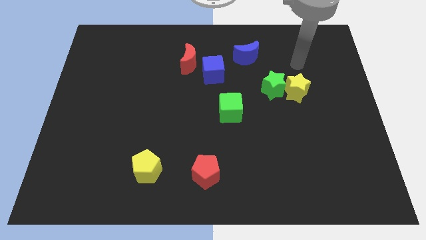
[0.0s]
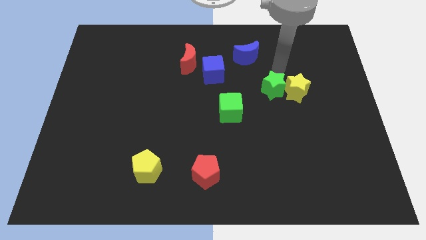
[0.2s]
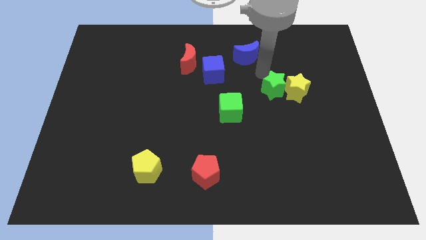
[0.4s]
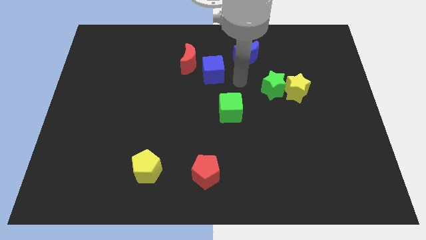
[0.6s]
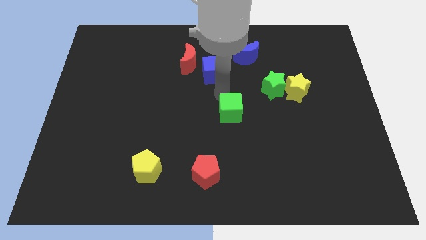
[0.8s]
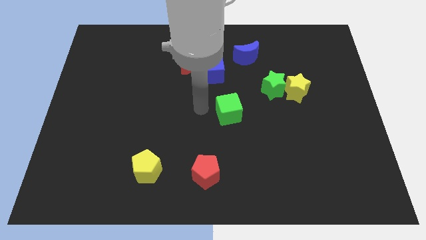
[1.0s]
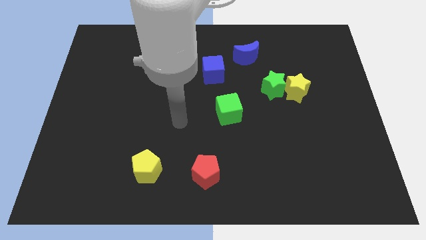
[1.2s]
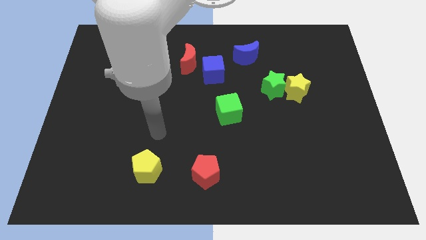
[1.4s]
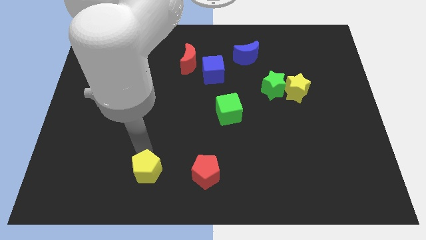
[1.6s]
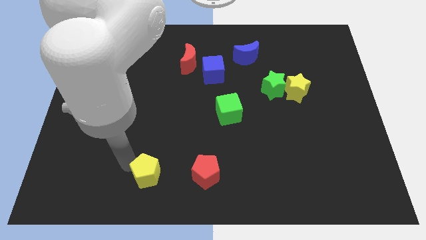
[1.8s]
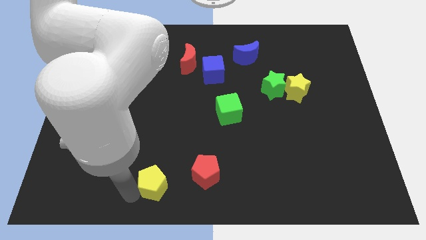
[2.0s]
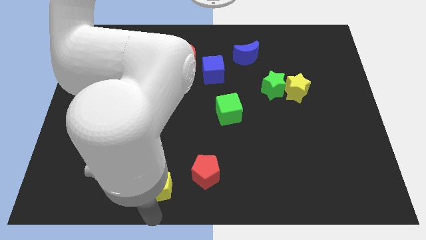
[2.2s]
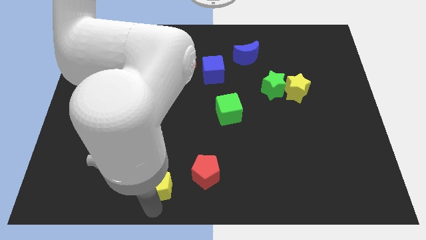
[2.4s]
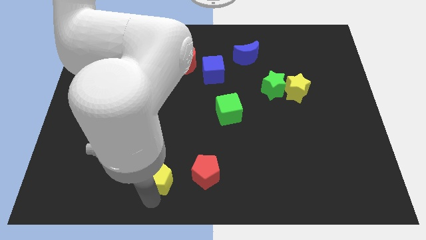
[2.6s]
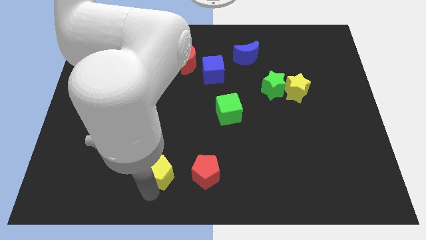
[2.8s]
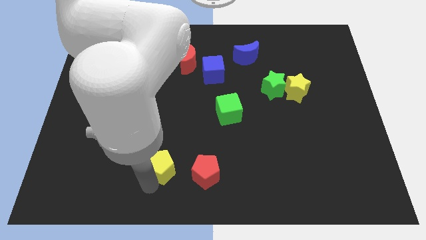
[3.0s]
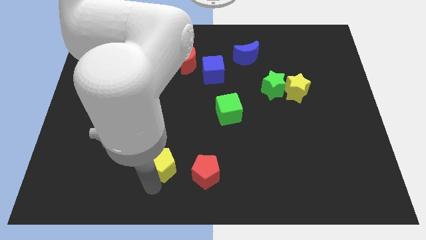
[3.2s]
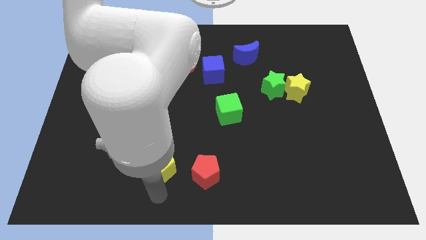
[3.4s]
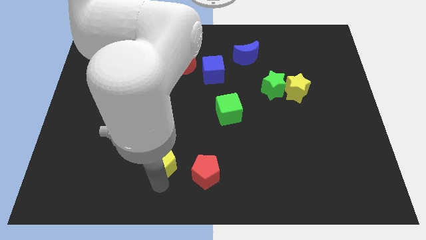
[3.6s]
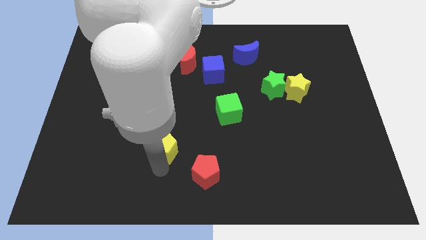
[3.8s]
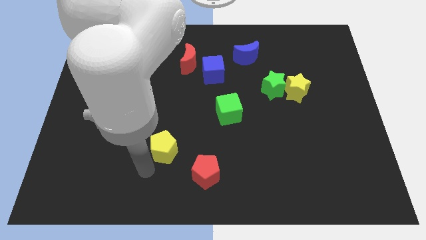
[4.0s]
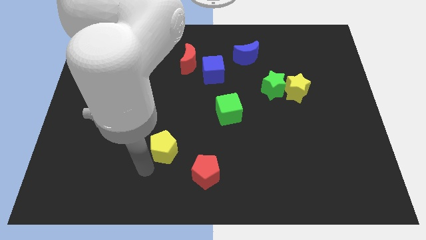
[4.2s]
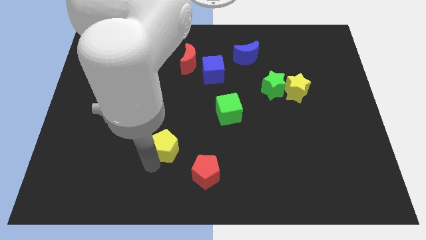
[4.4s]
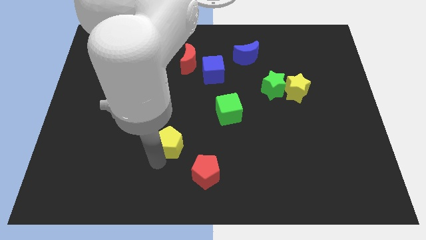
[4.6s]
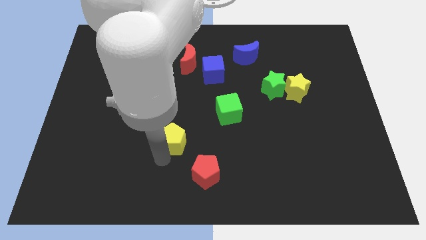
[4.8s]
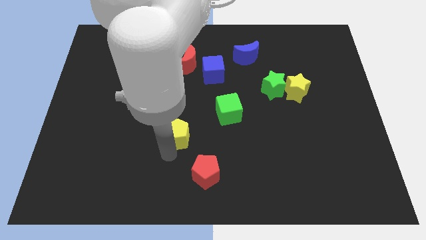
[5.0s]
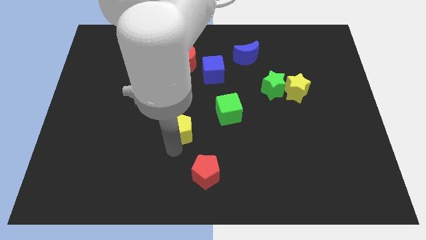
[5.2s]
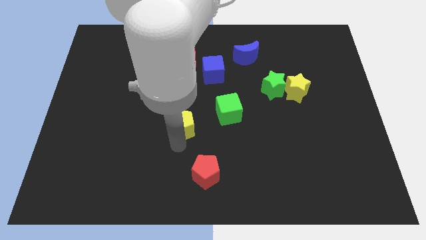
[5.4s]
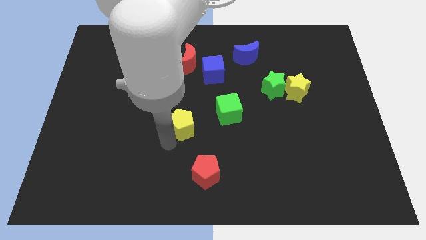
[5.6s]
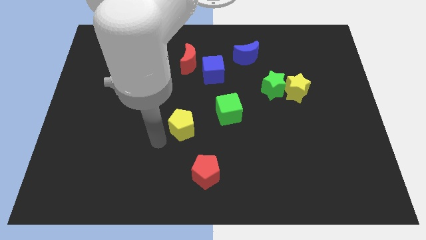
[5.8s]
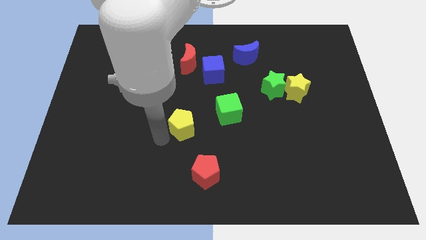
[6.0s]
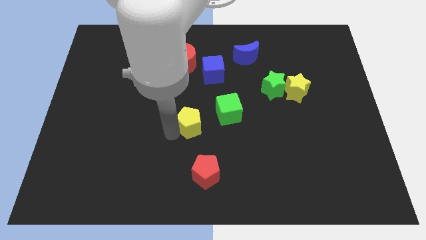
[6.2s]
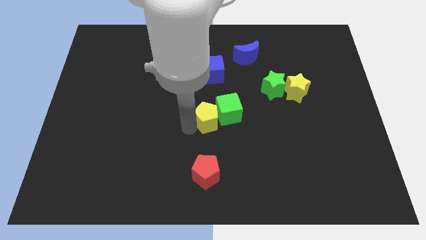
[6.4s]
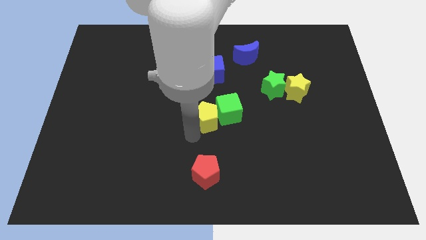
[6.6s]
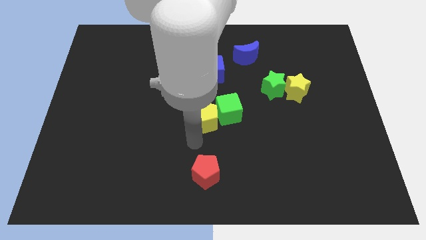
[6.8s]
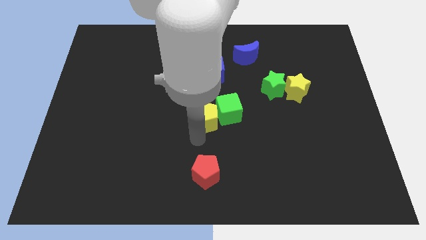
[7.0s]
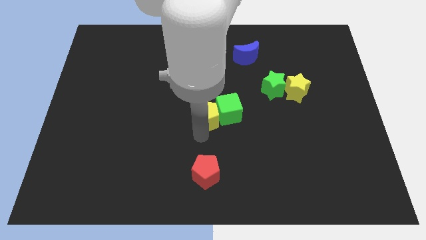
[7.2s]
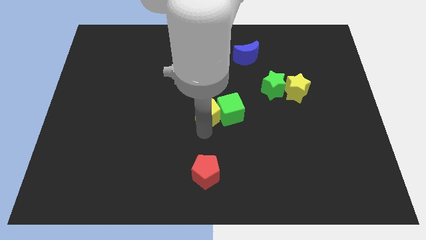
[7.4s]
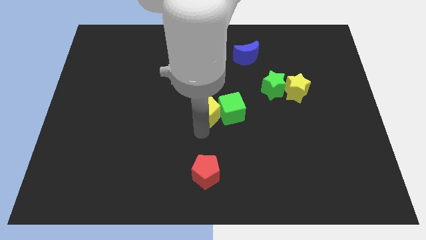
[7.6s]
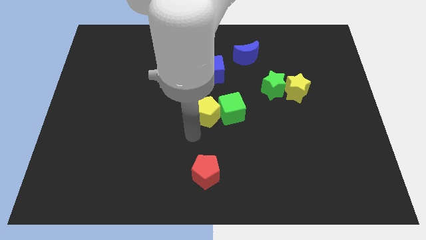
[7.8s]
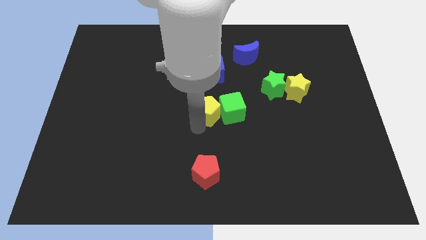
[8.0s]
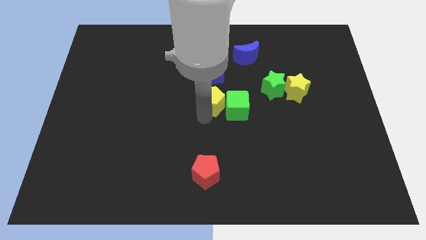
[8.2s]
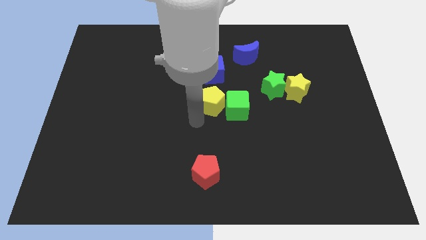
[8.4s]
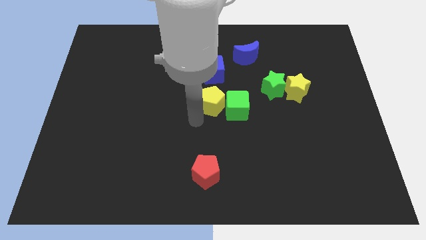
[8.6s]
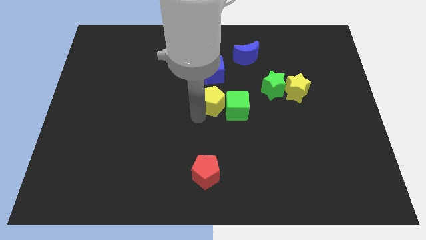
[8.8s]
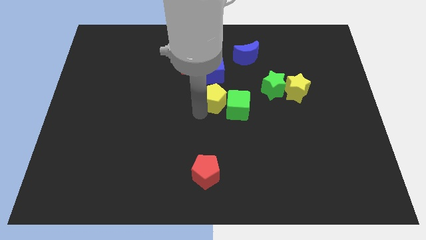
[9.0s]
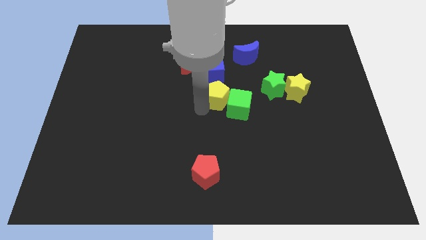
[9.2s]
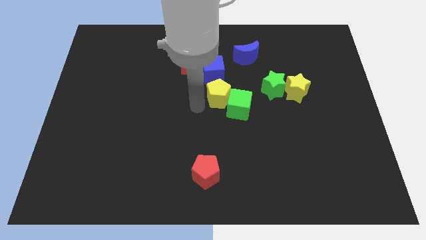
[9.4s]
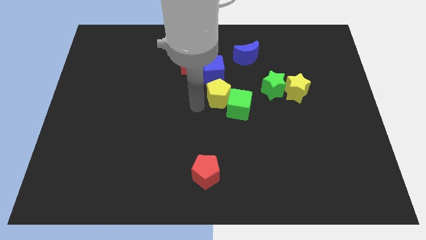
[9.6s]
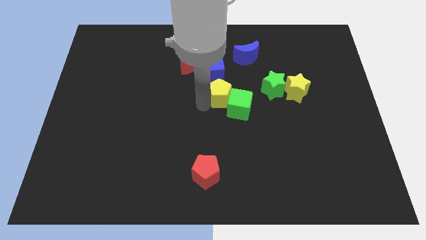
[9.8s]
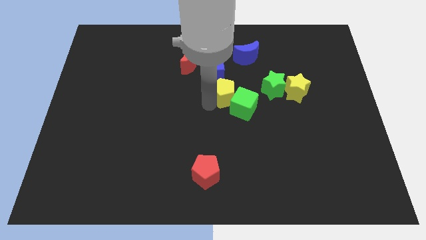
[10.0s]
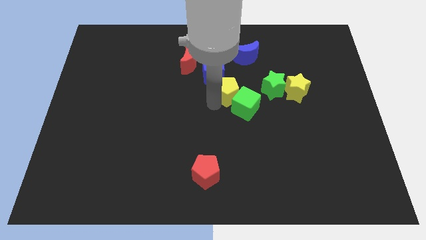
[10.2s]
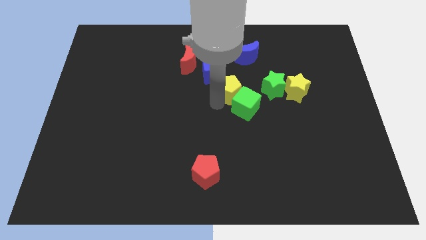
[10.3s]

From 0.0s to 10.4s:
move the yellow pentagon left of the yellow star
